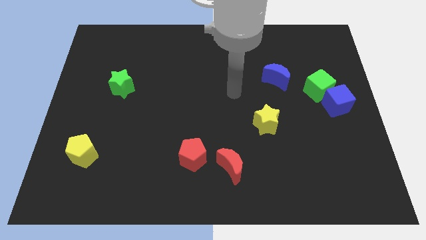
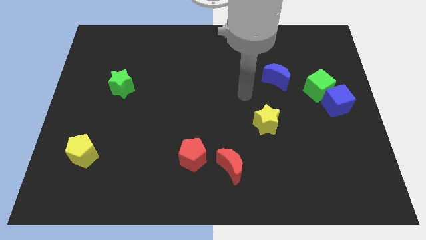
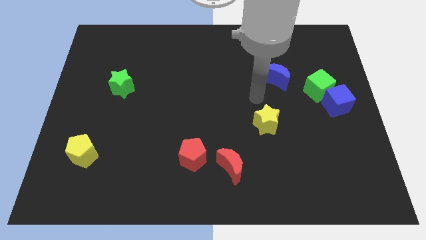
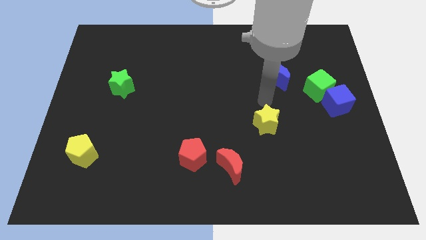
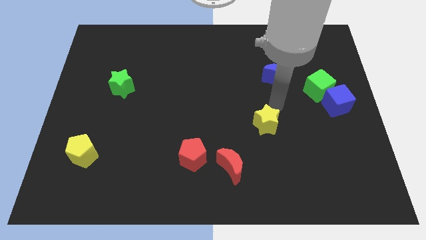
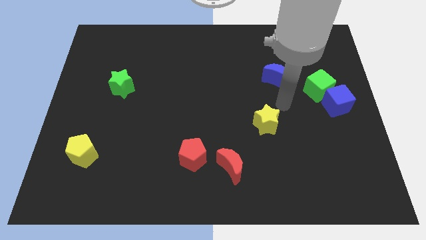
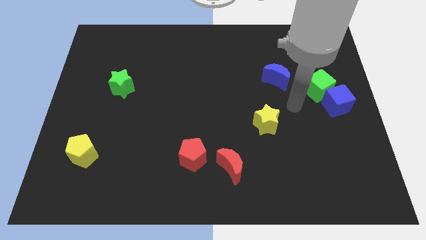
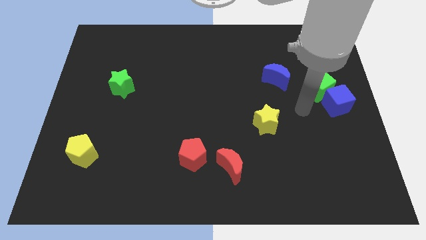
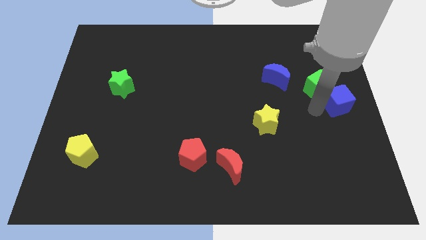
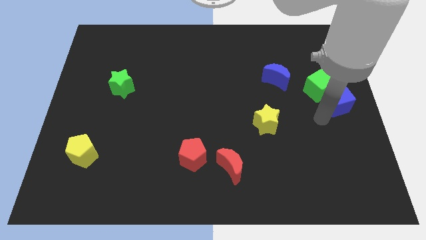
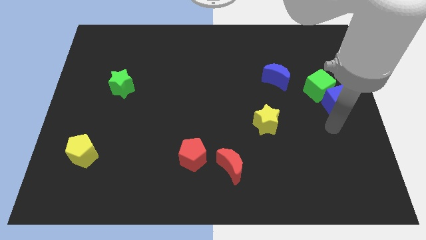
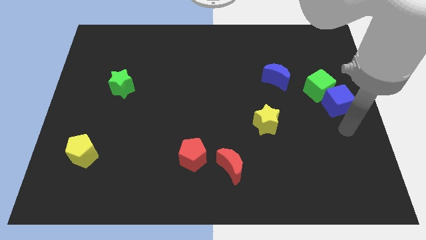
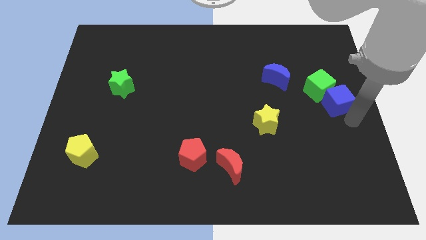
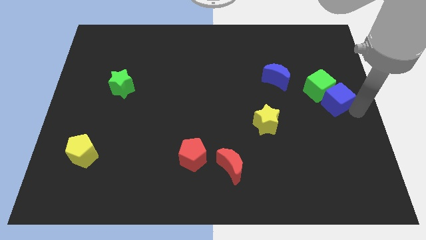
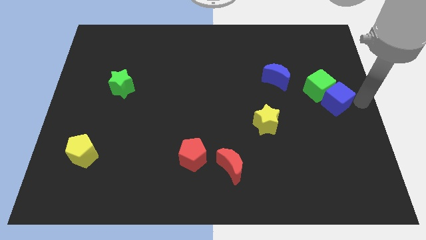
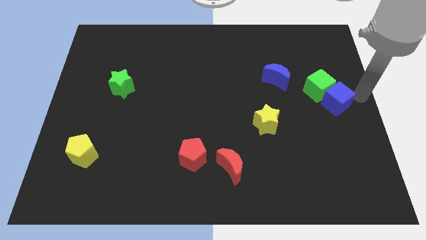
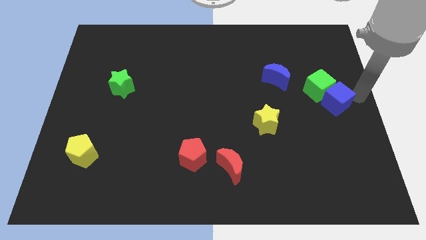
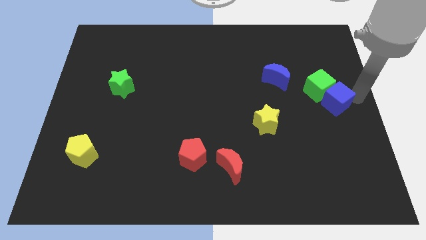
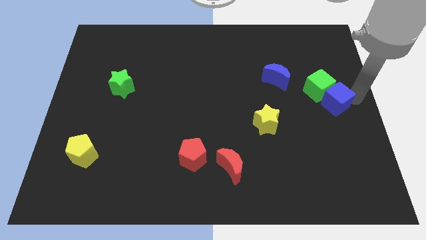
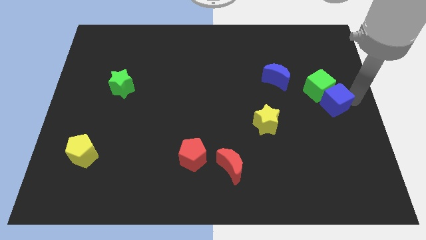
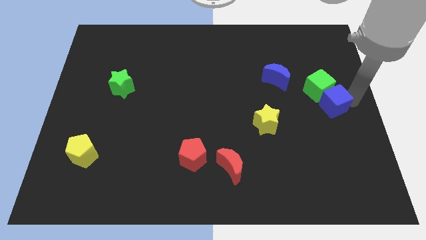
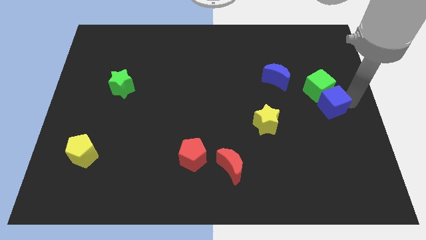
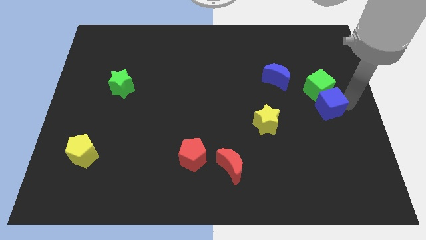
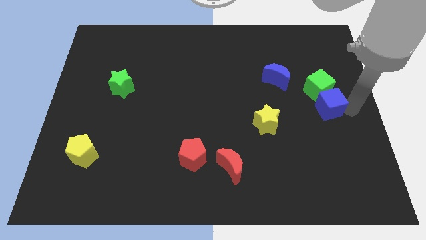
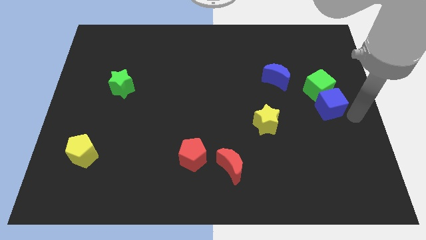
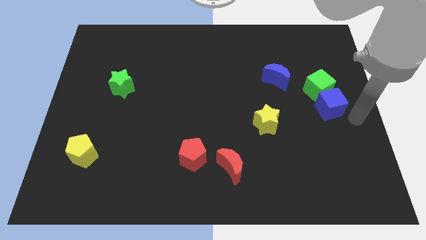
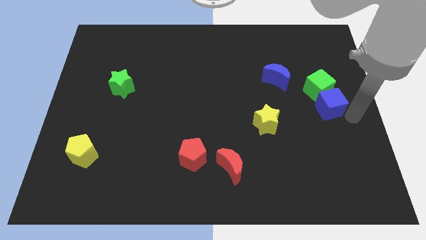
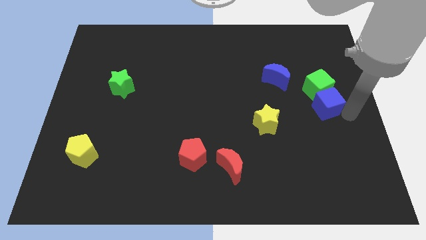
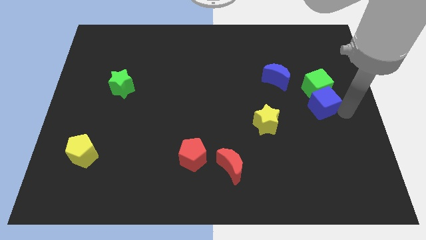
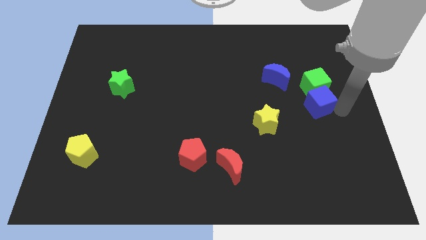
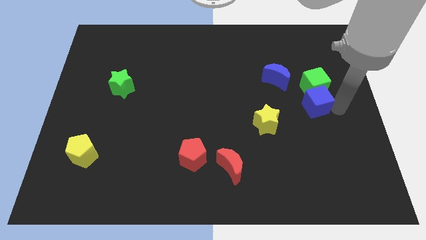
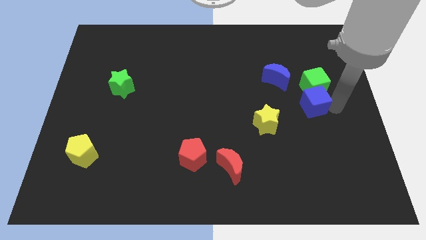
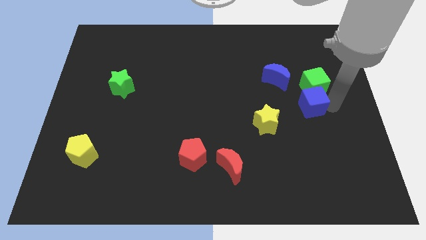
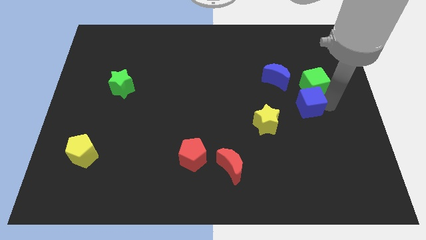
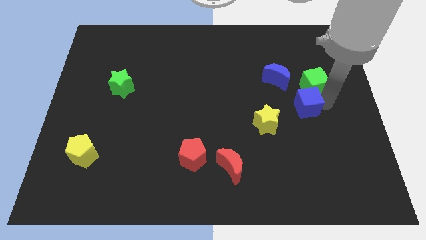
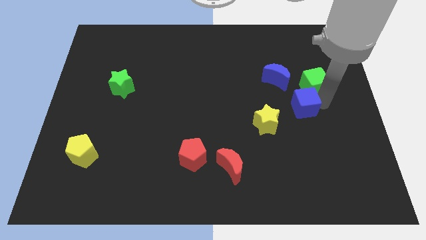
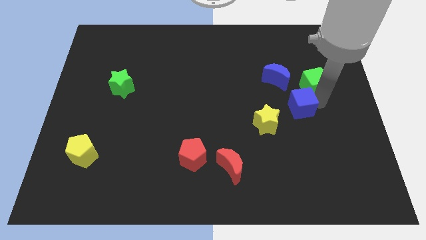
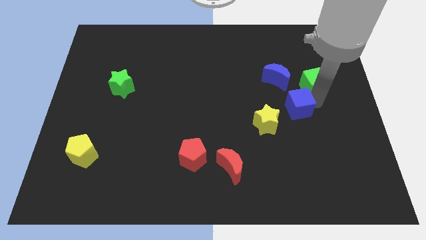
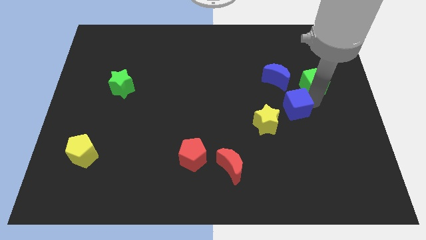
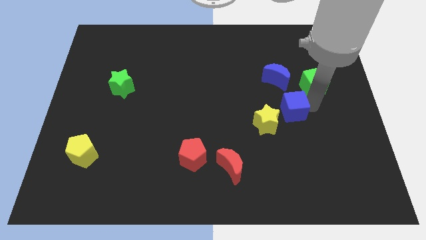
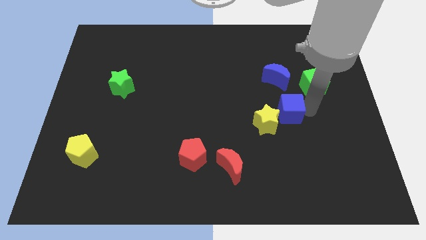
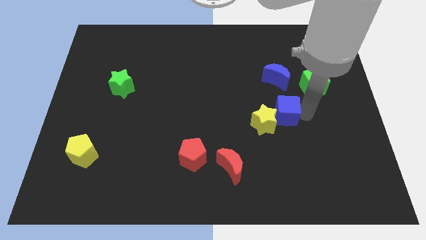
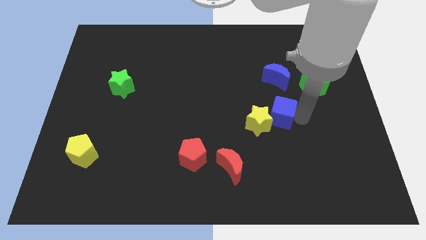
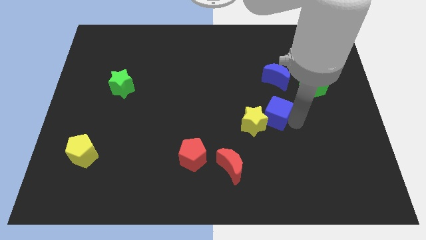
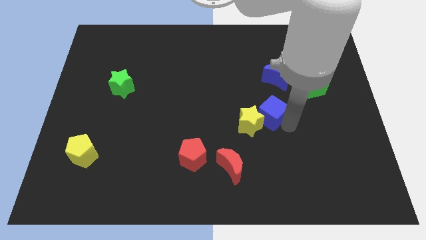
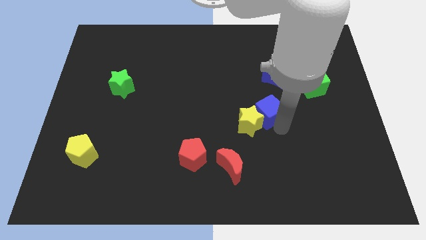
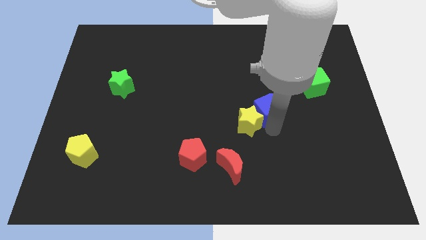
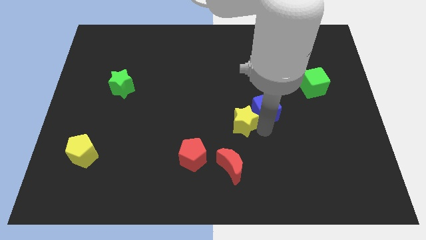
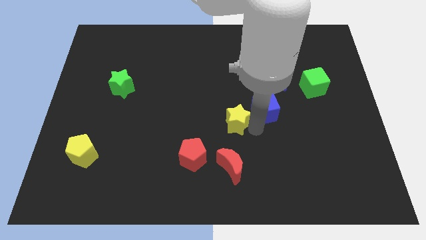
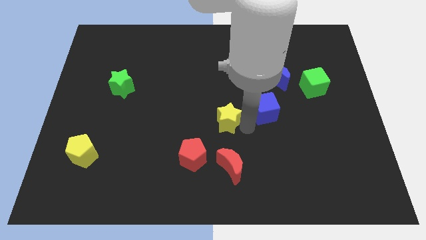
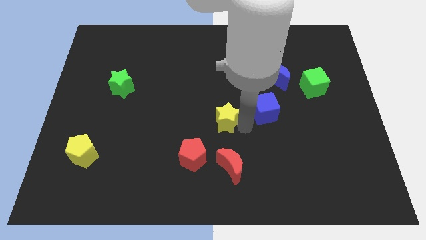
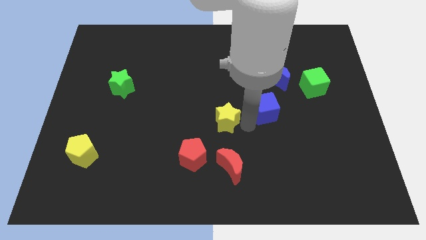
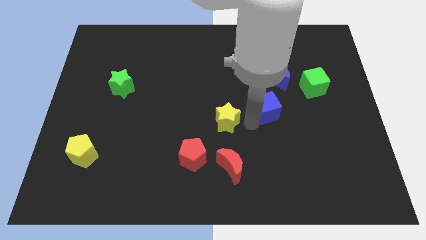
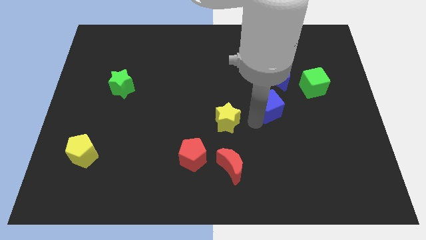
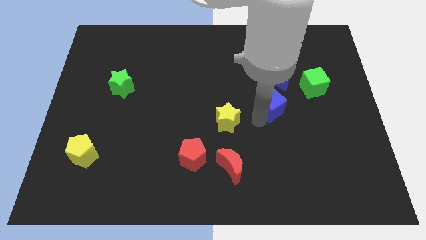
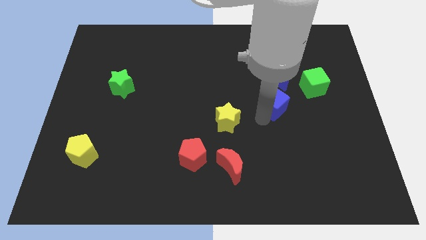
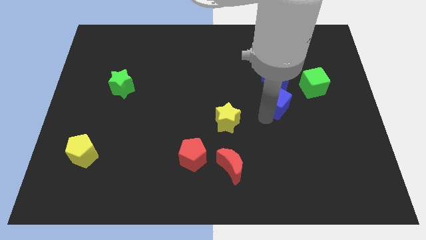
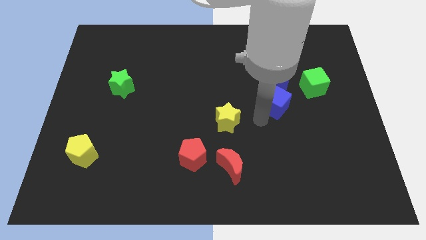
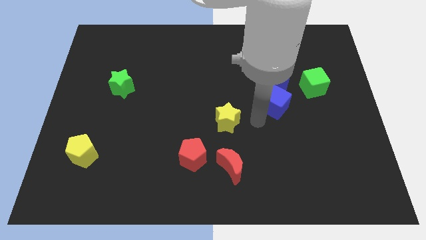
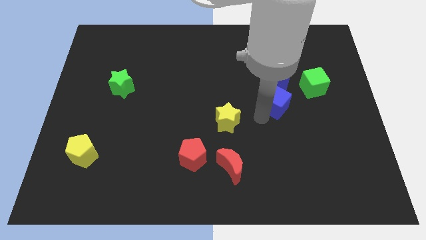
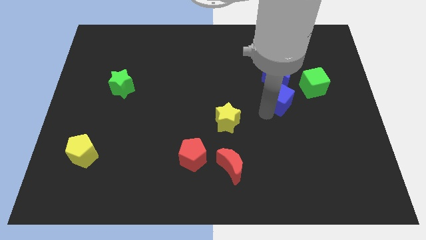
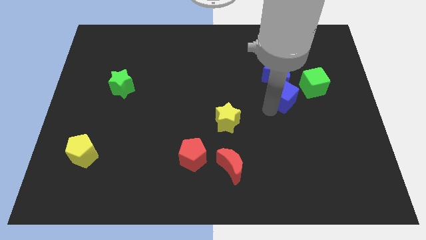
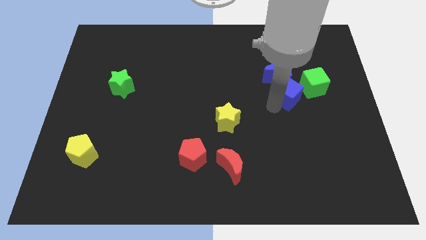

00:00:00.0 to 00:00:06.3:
move the blue cube next to the blue moon

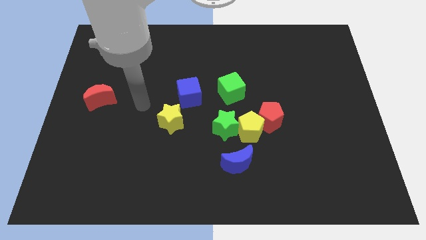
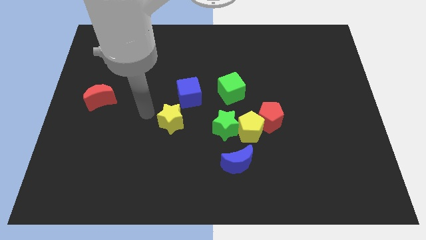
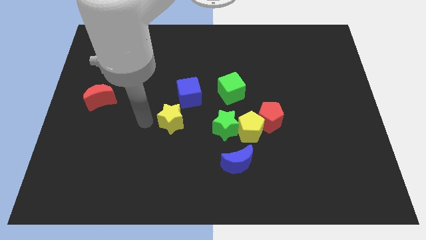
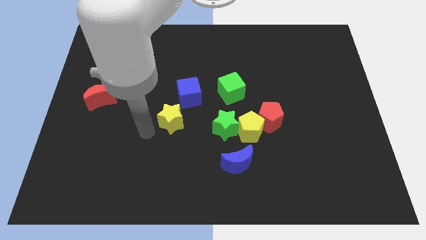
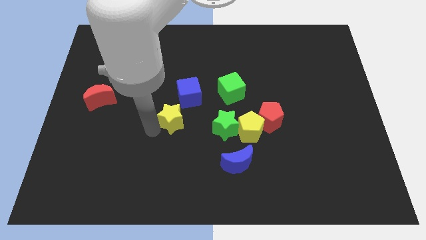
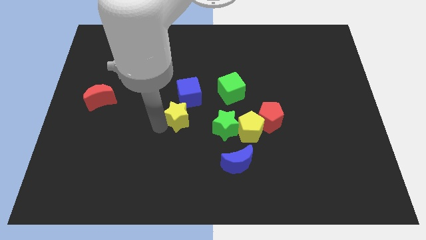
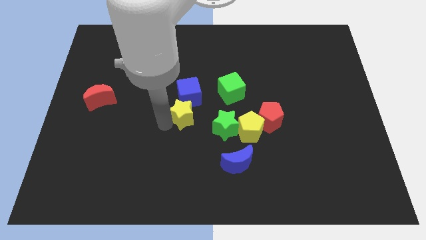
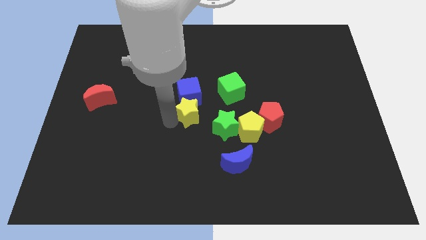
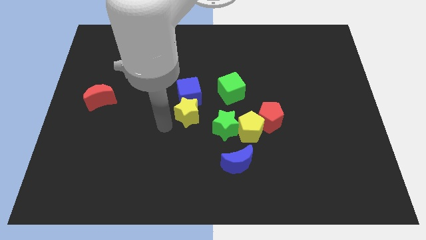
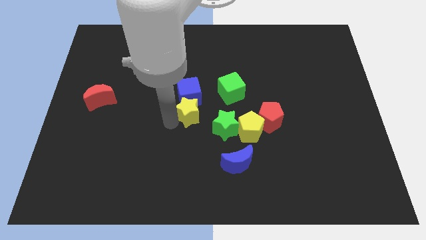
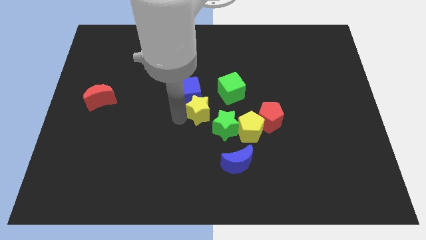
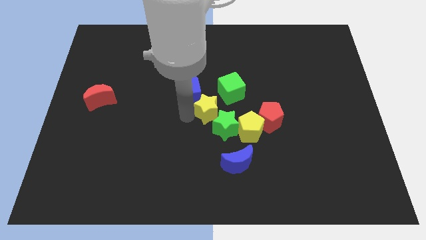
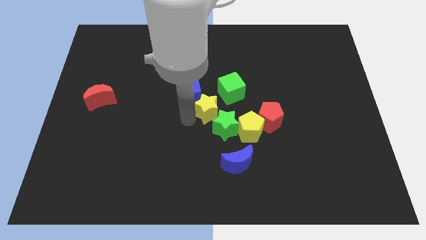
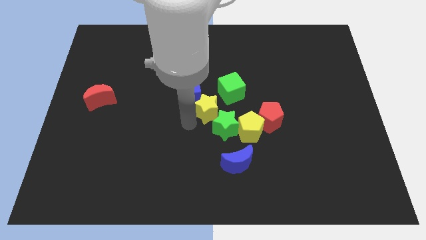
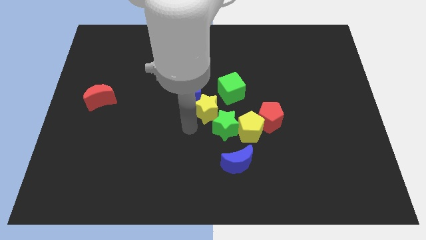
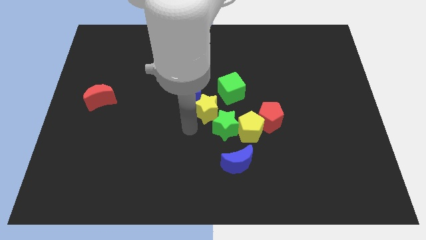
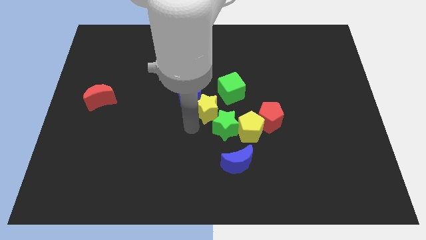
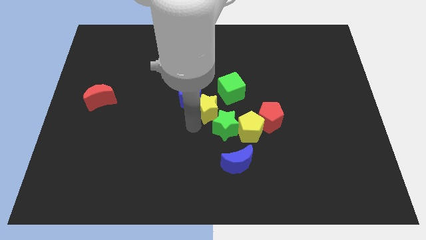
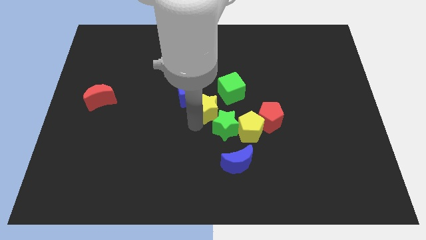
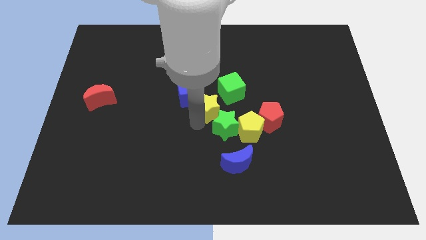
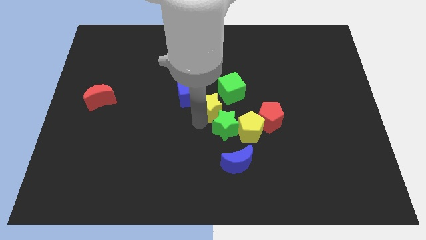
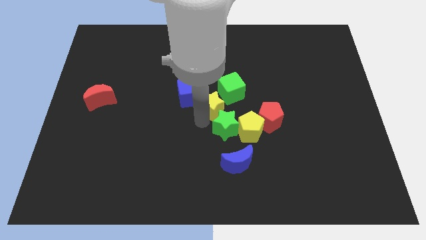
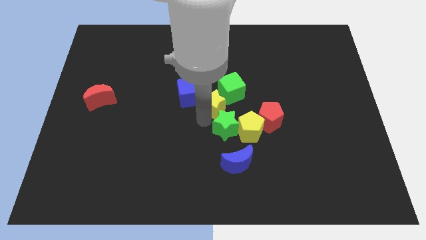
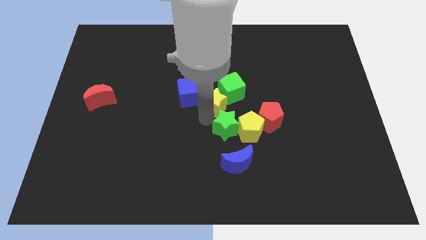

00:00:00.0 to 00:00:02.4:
push the yellow star to the green cube
